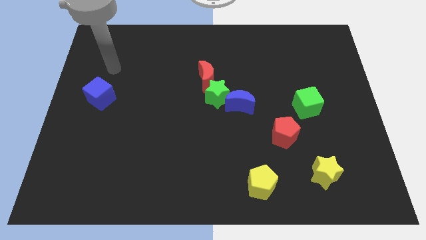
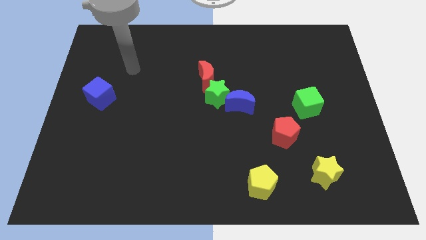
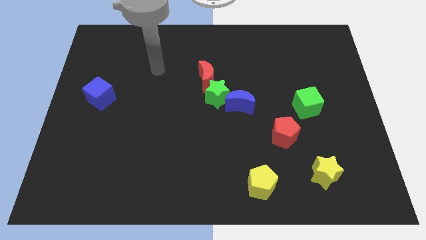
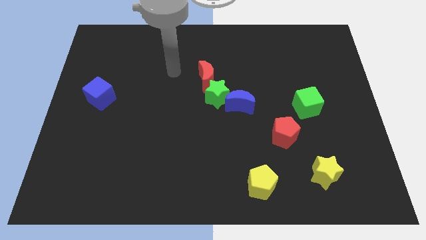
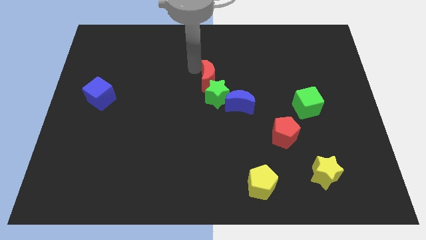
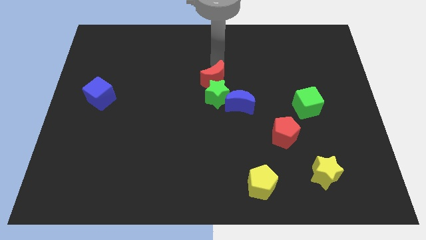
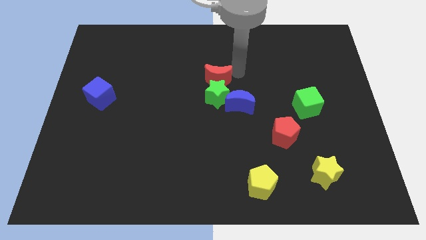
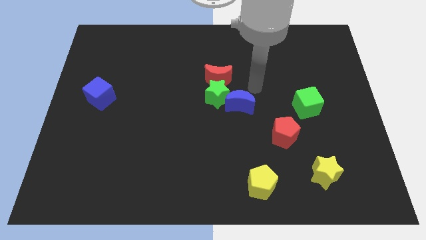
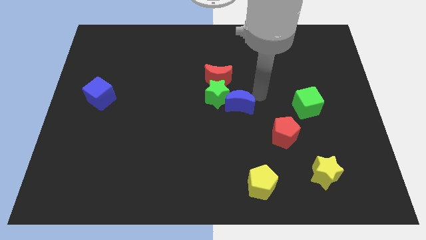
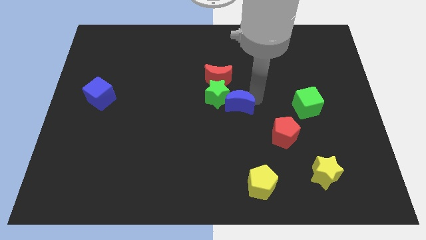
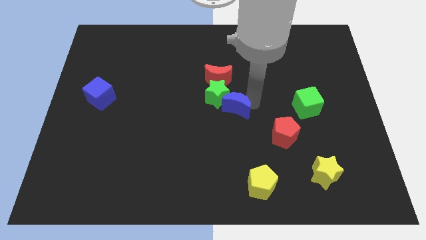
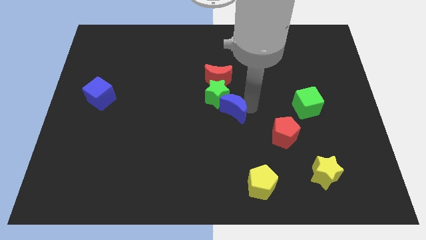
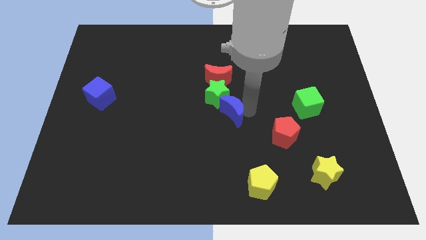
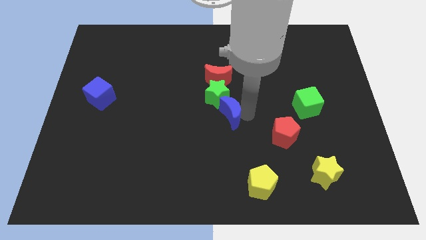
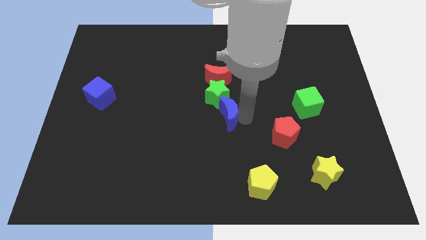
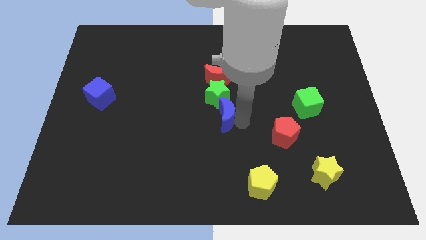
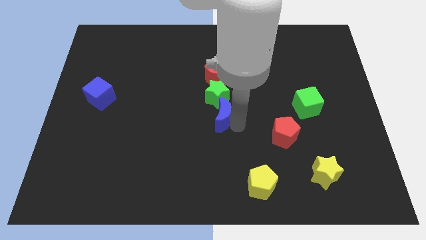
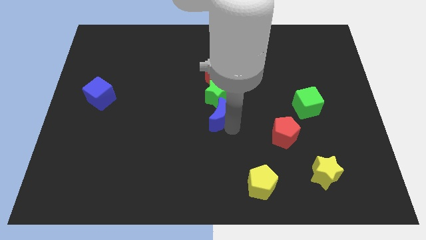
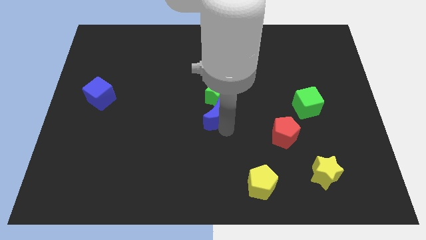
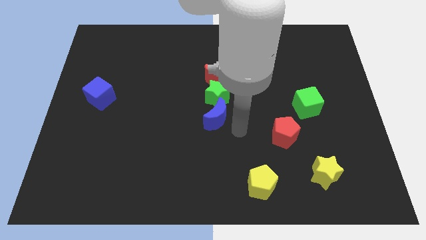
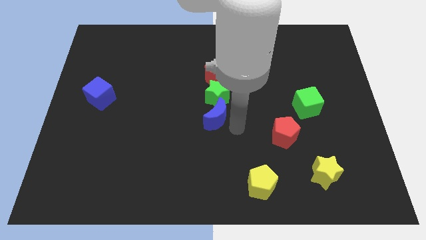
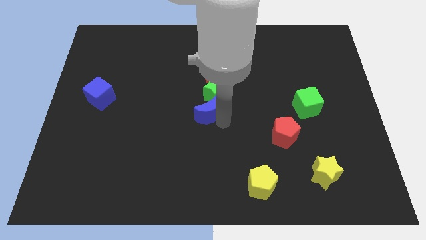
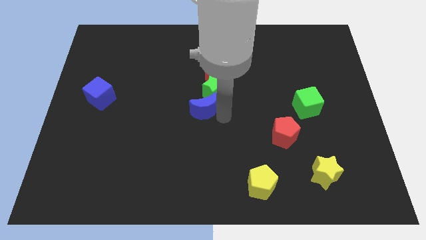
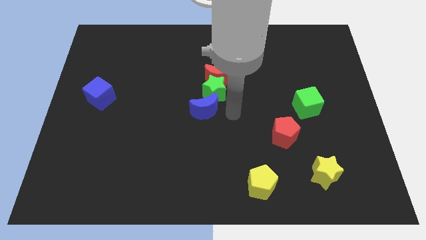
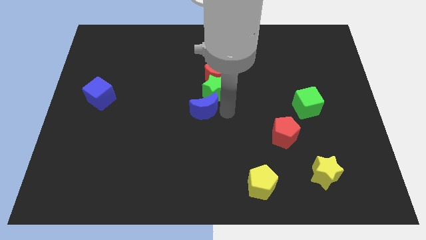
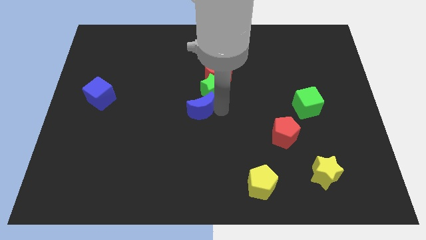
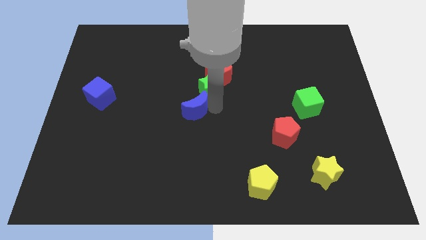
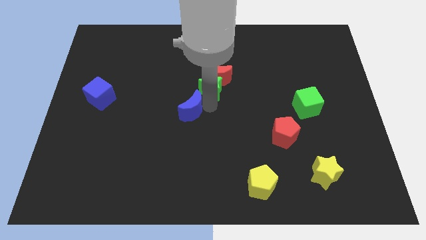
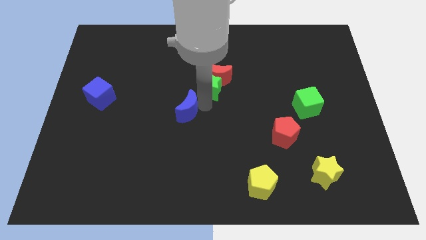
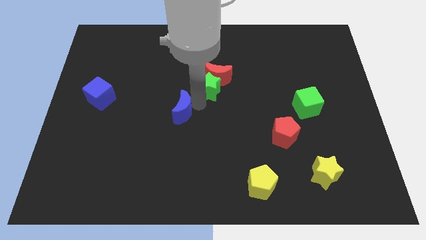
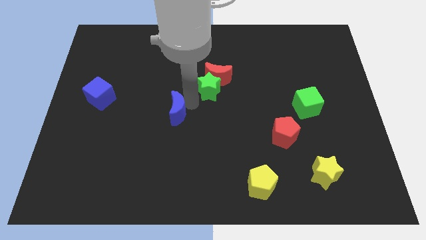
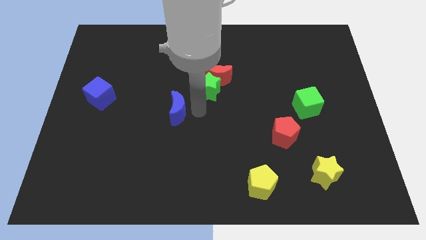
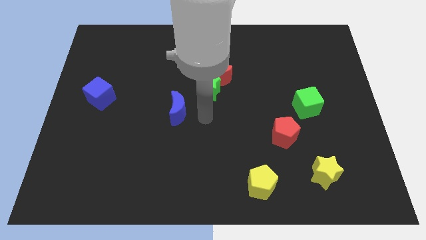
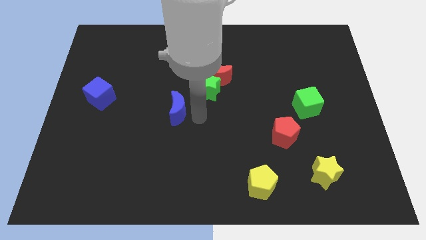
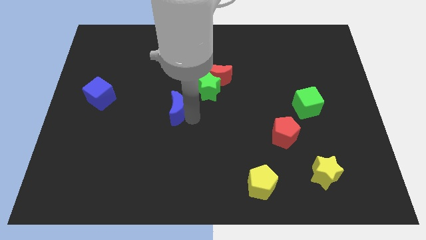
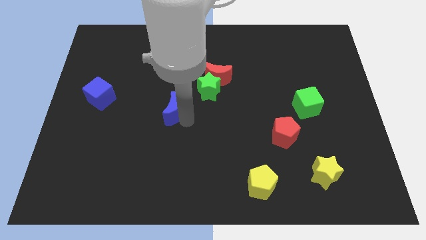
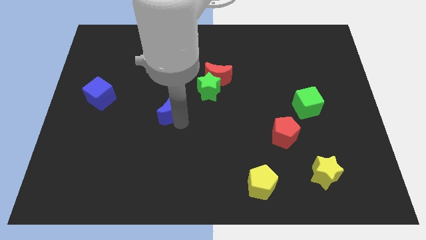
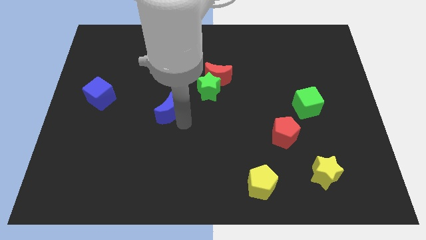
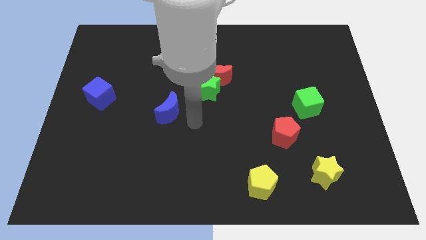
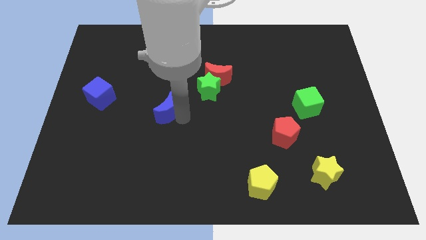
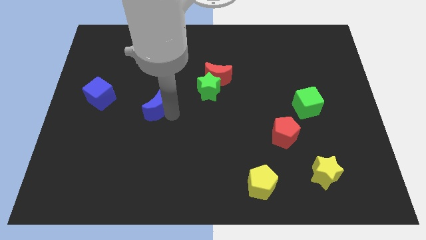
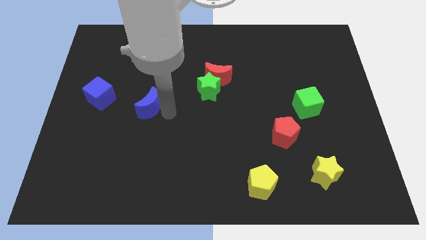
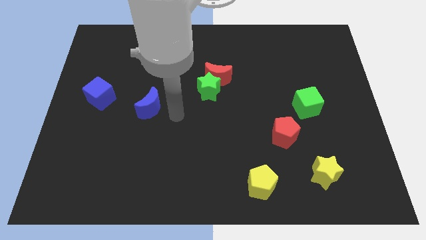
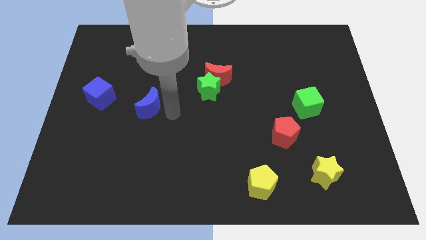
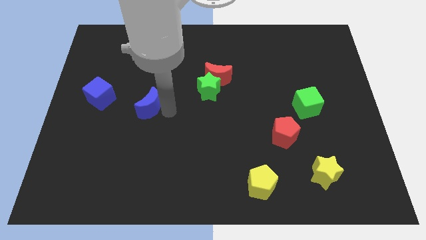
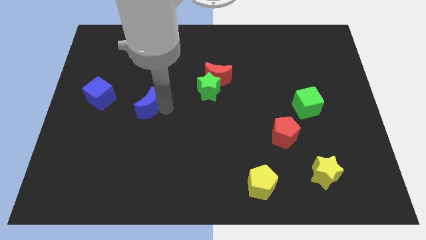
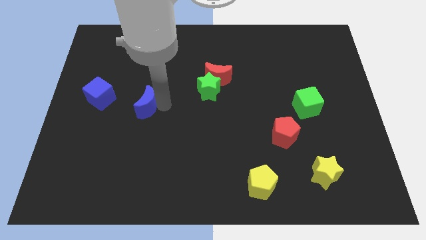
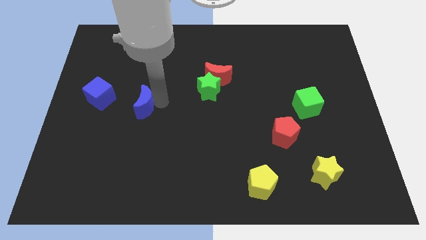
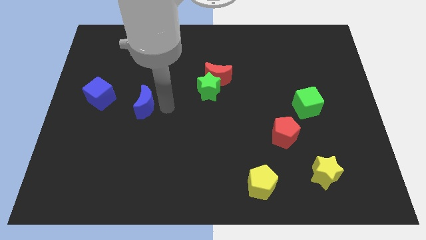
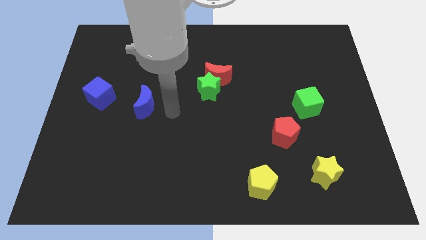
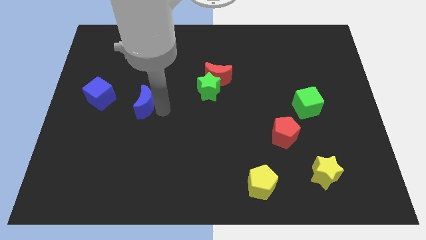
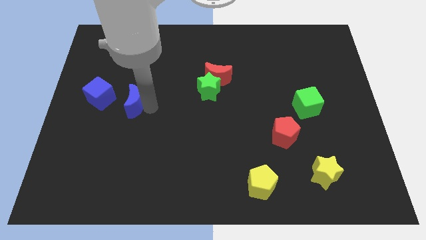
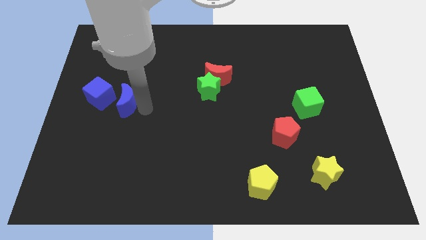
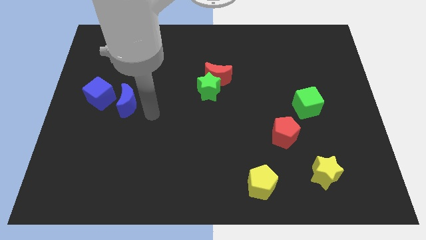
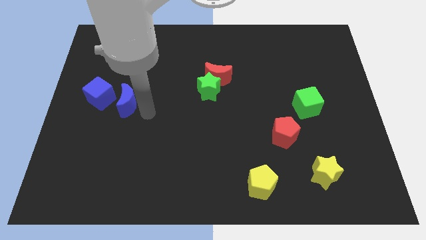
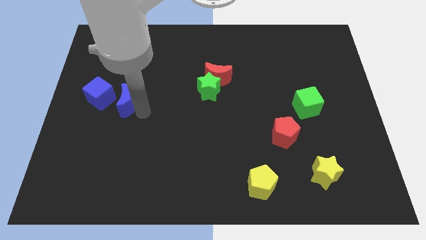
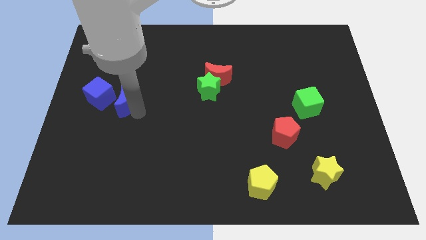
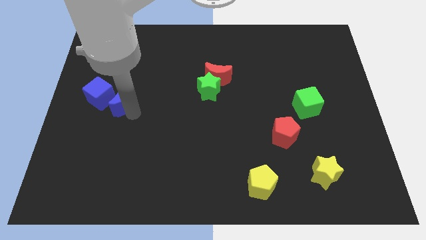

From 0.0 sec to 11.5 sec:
move the blue moon close to the blue cube

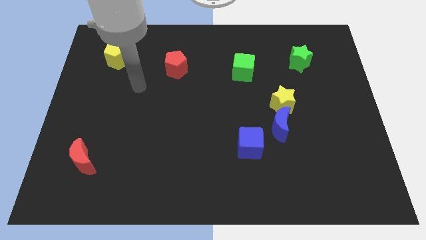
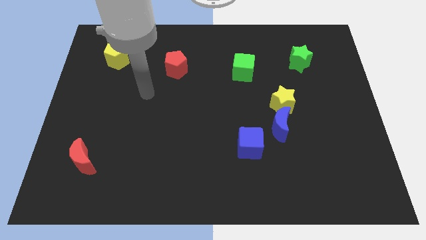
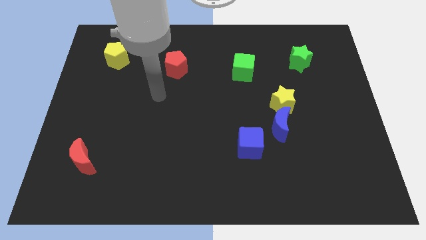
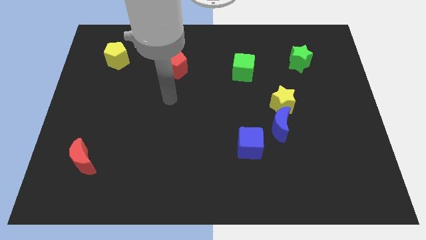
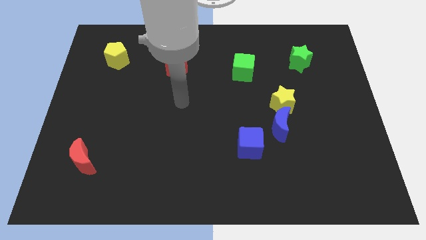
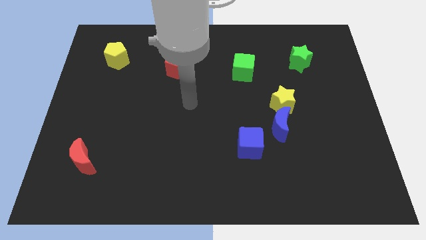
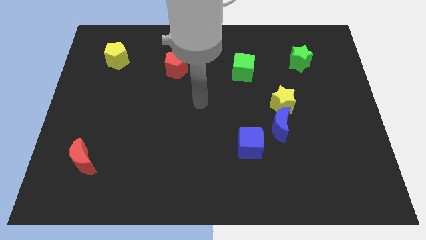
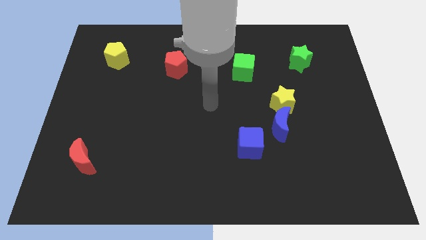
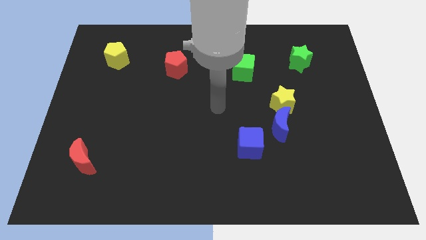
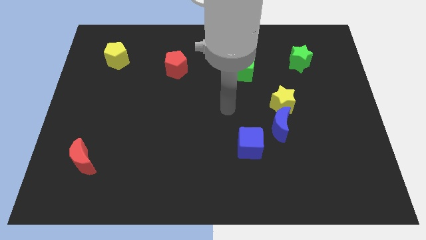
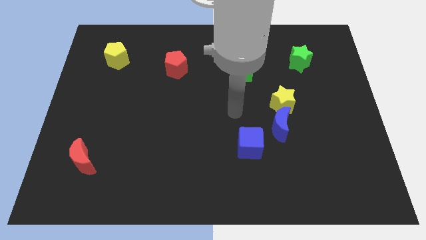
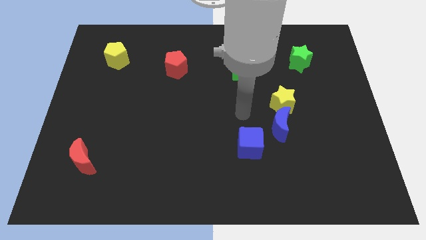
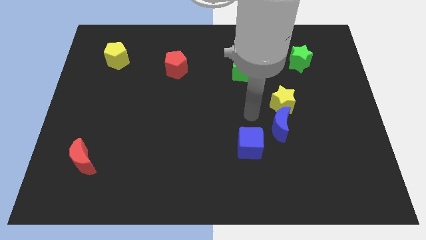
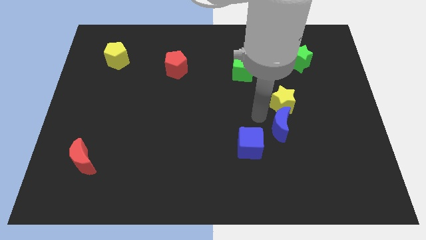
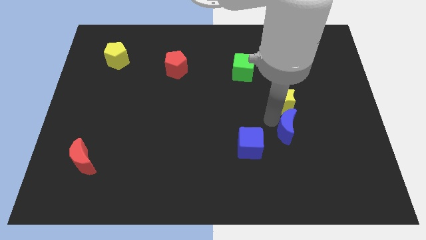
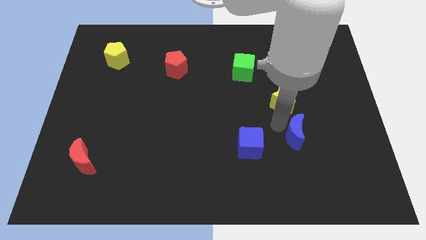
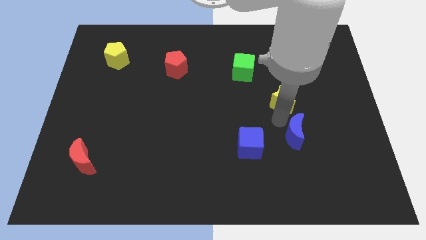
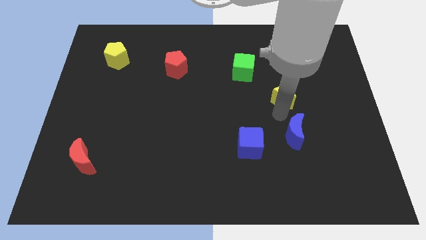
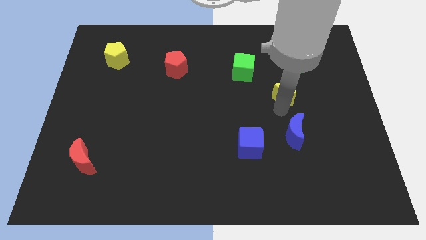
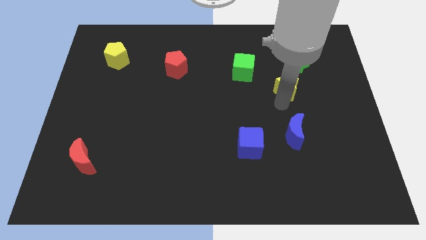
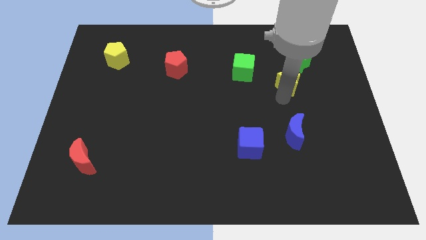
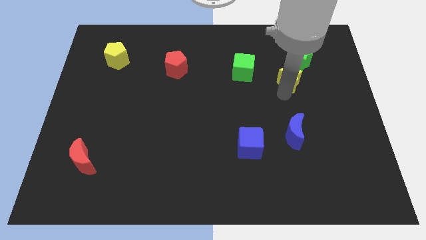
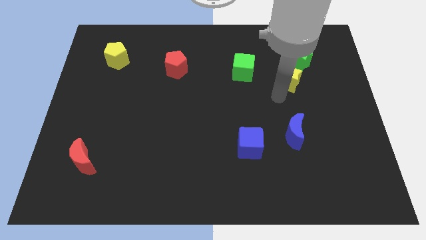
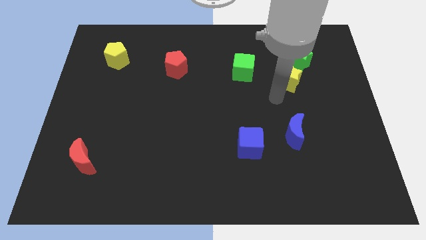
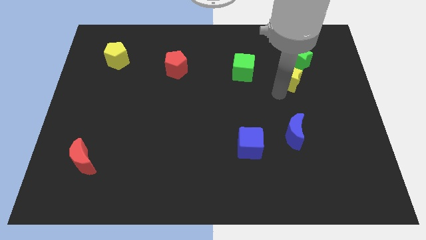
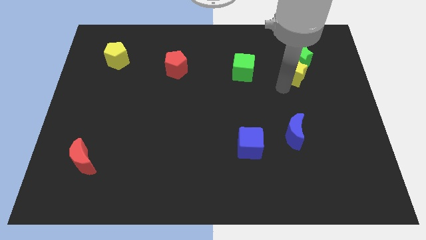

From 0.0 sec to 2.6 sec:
slide the yellow star next to the green star
